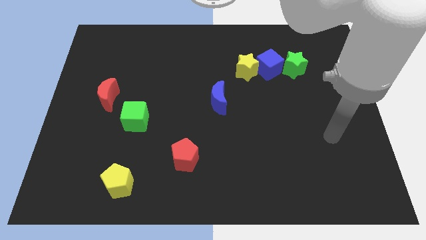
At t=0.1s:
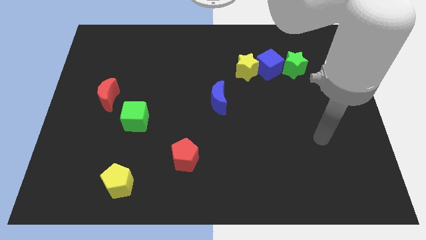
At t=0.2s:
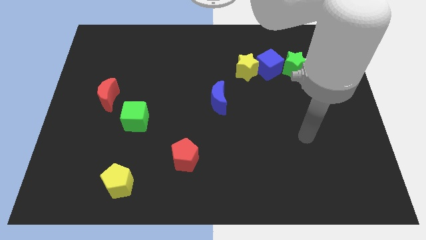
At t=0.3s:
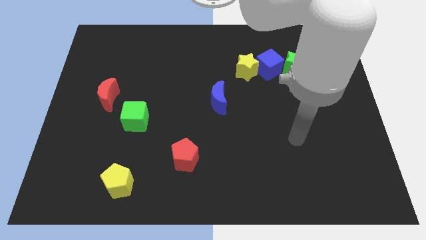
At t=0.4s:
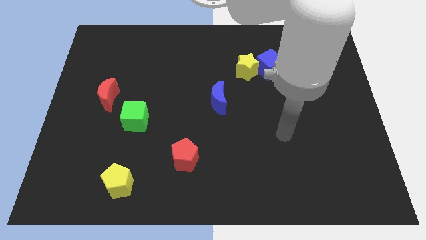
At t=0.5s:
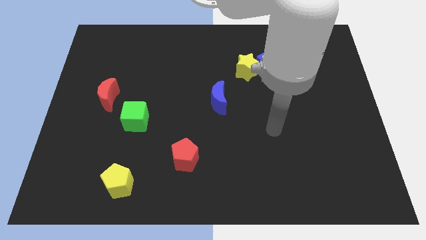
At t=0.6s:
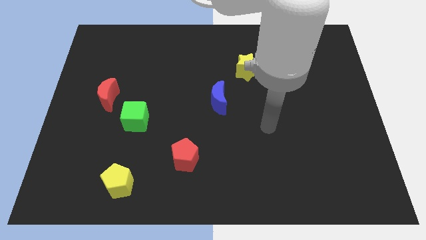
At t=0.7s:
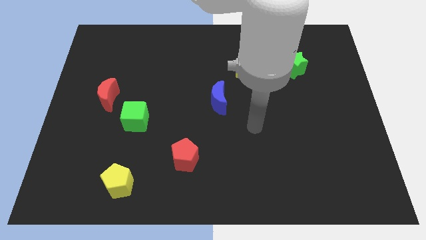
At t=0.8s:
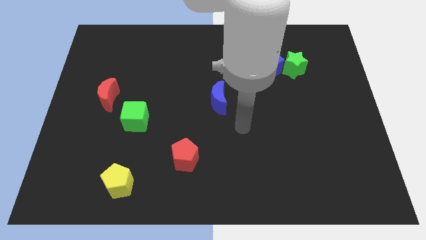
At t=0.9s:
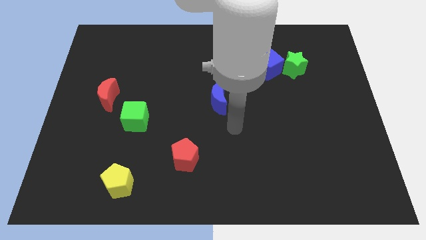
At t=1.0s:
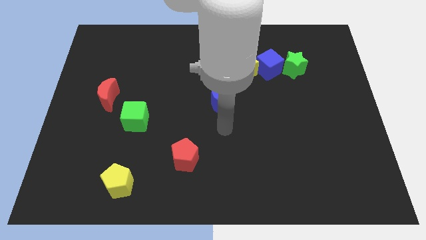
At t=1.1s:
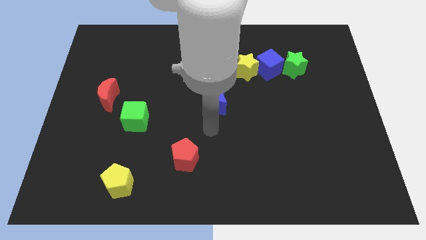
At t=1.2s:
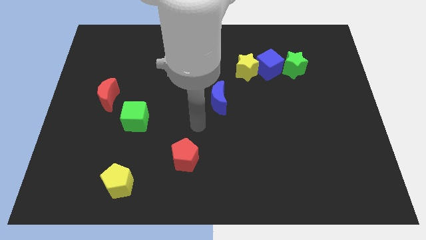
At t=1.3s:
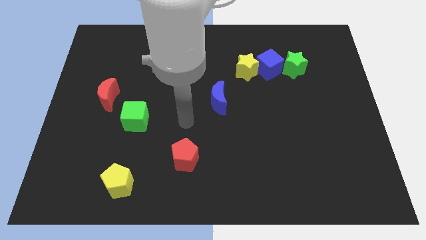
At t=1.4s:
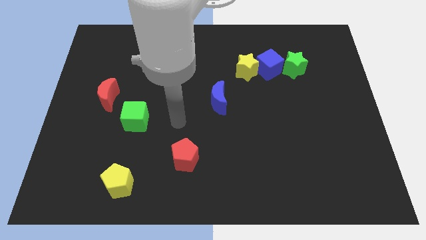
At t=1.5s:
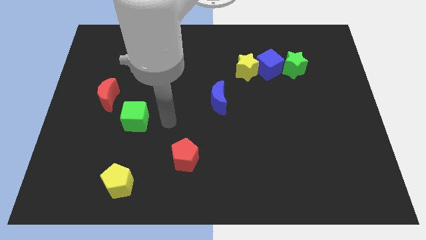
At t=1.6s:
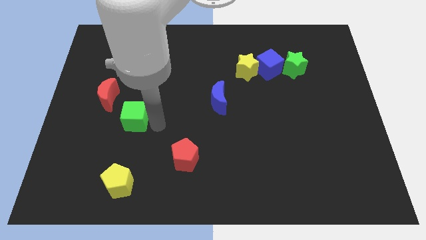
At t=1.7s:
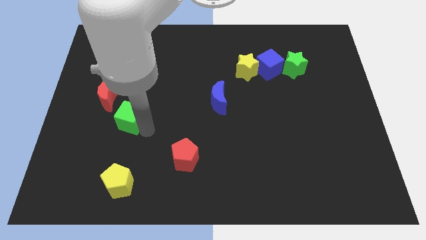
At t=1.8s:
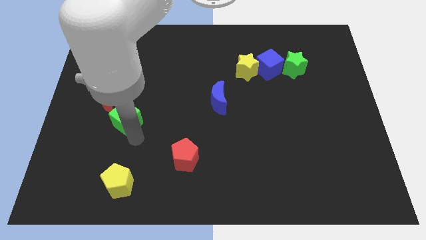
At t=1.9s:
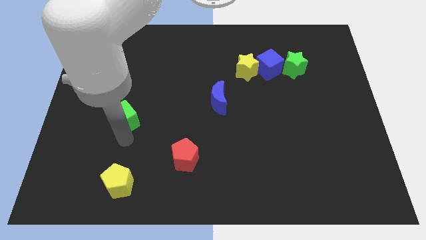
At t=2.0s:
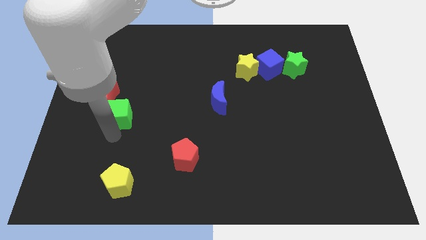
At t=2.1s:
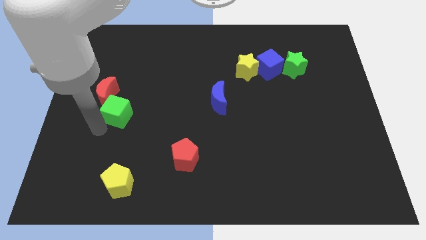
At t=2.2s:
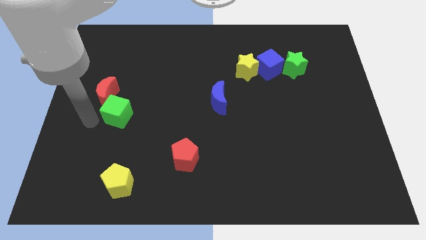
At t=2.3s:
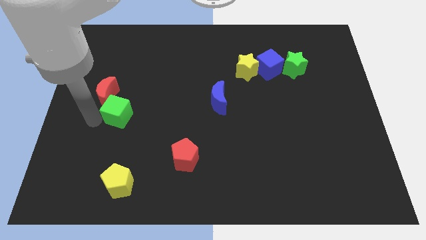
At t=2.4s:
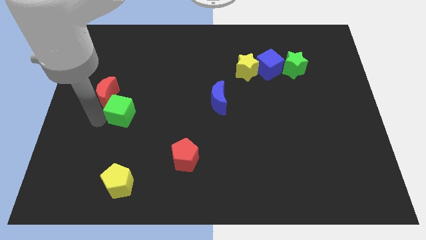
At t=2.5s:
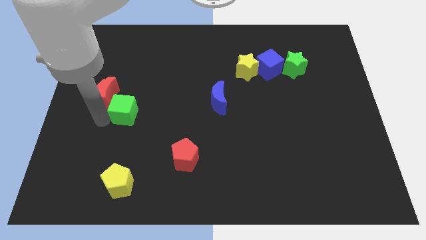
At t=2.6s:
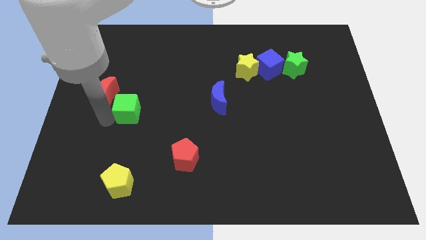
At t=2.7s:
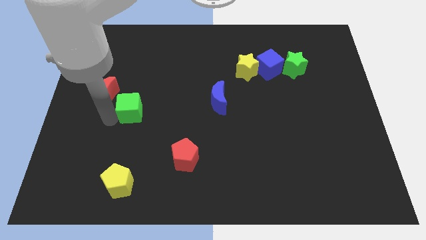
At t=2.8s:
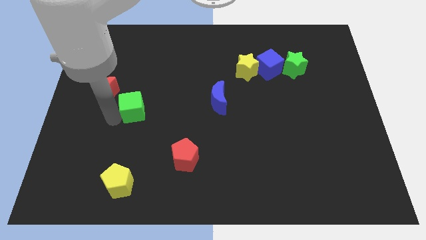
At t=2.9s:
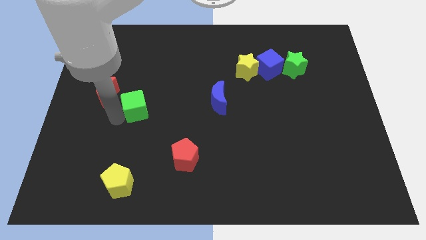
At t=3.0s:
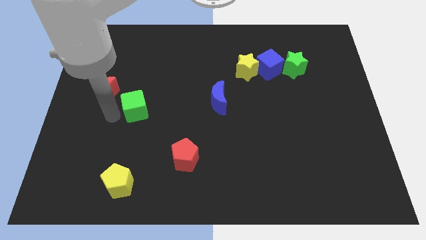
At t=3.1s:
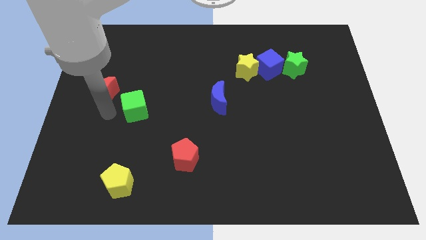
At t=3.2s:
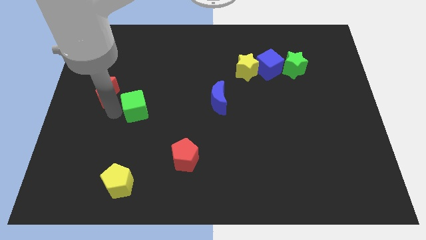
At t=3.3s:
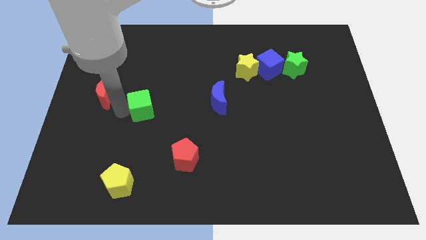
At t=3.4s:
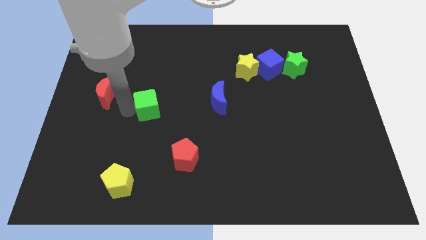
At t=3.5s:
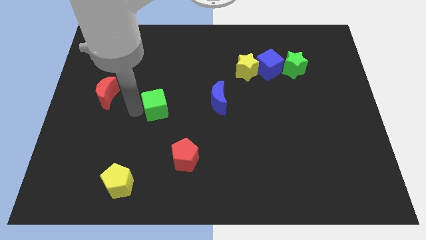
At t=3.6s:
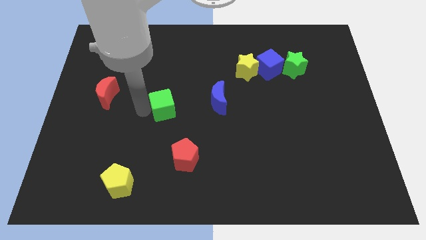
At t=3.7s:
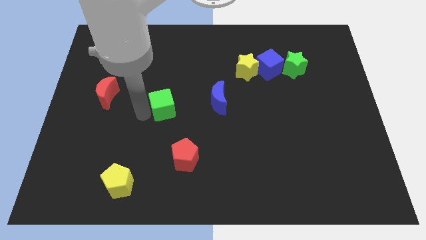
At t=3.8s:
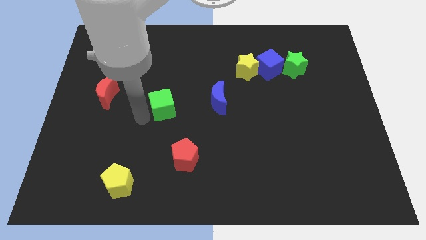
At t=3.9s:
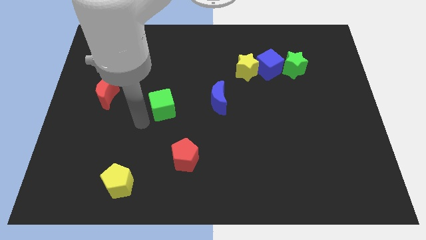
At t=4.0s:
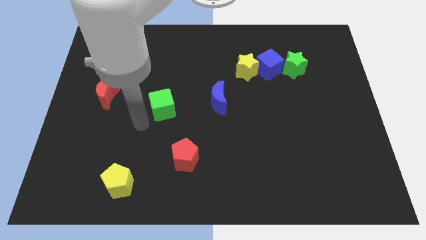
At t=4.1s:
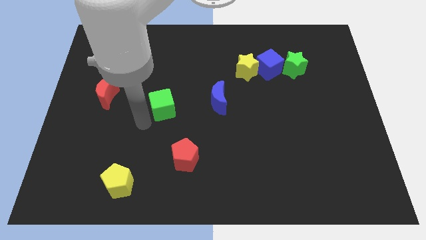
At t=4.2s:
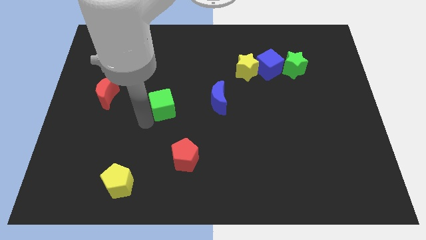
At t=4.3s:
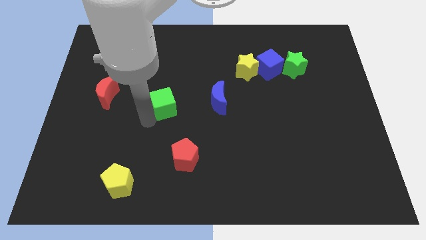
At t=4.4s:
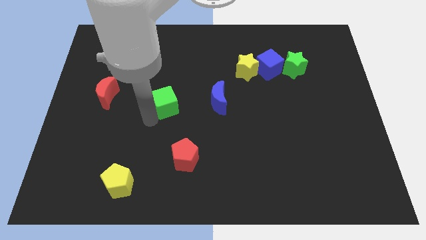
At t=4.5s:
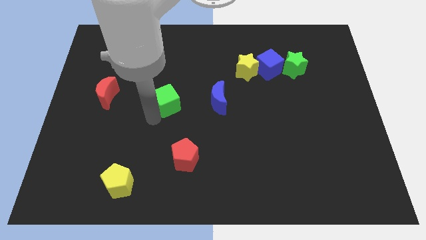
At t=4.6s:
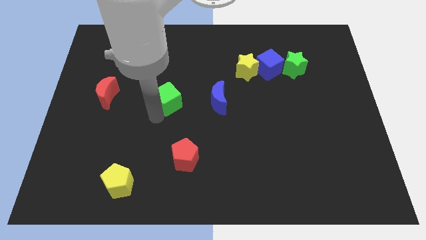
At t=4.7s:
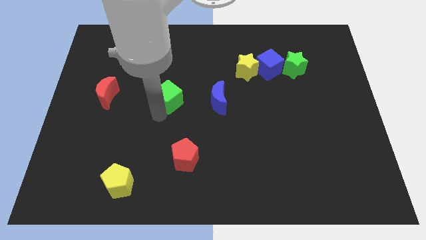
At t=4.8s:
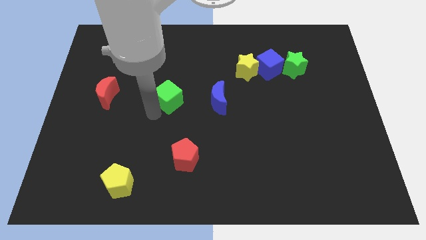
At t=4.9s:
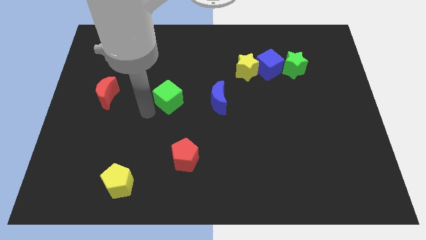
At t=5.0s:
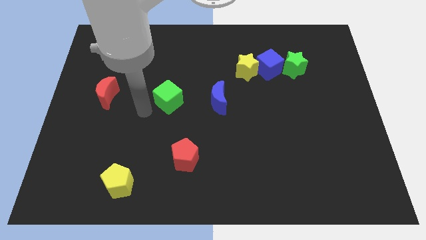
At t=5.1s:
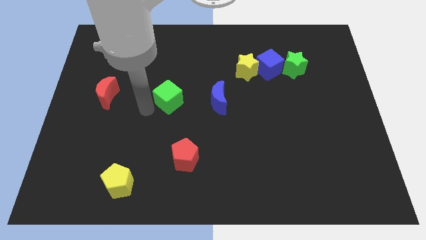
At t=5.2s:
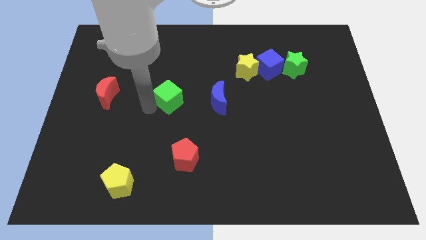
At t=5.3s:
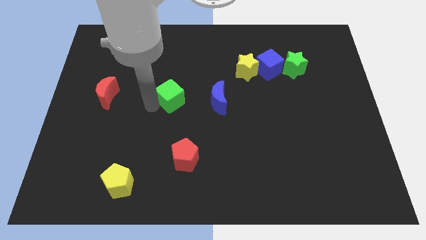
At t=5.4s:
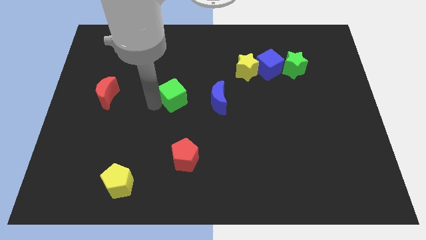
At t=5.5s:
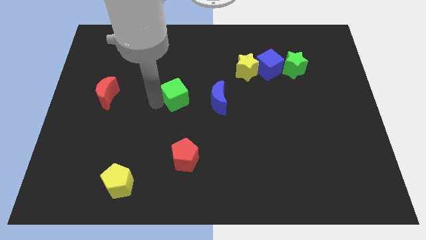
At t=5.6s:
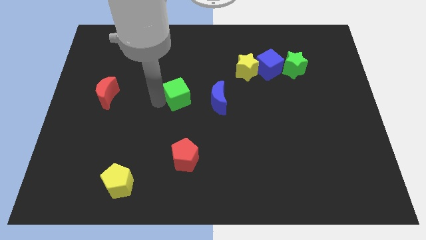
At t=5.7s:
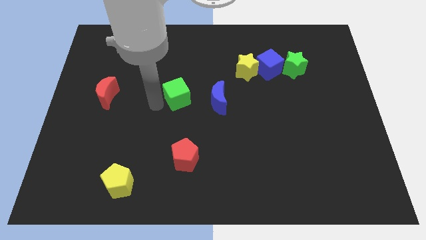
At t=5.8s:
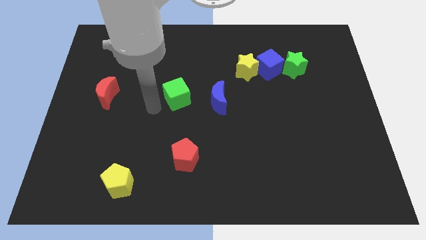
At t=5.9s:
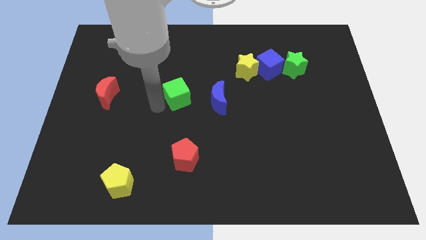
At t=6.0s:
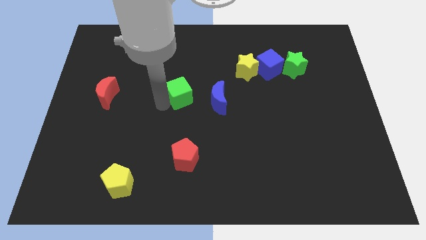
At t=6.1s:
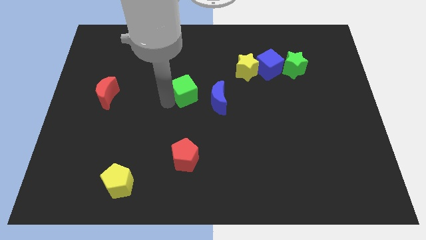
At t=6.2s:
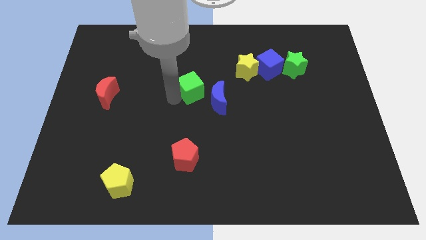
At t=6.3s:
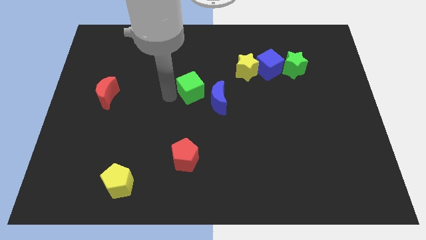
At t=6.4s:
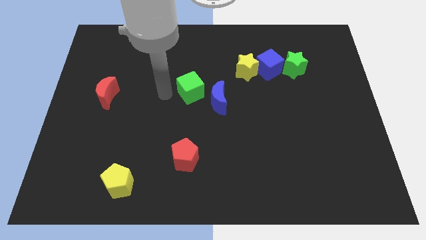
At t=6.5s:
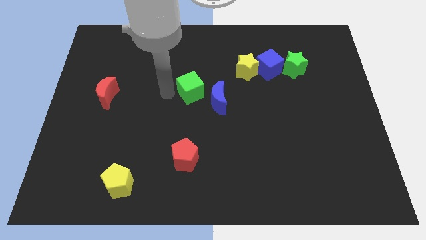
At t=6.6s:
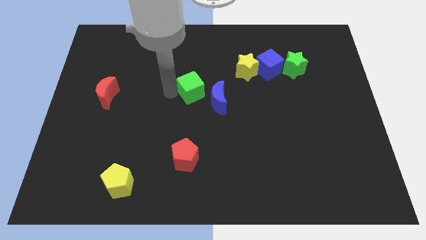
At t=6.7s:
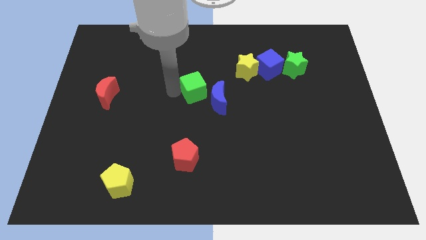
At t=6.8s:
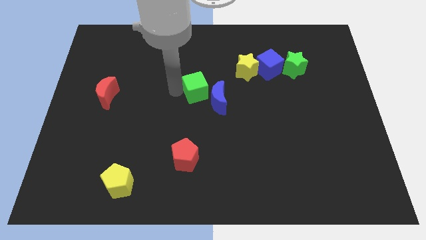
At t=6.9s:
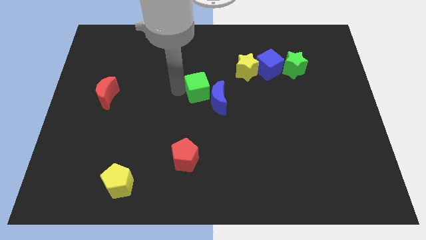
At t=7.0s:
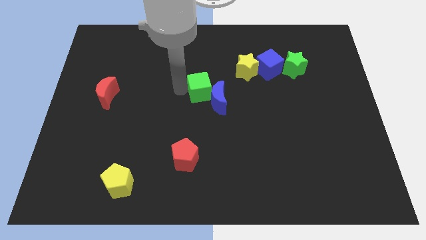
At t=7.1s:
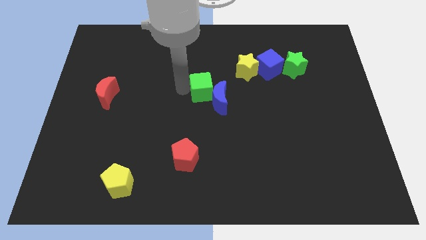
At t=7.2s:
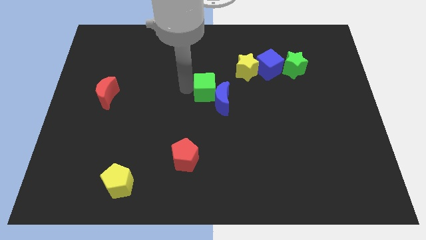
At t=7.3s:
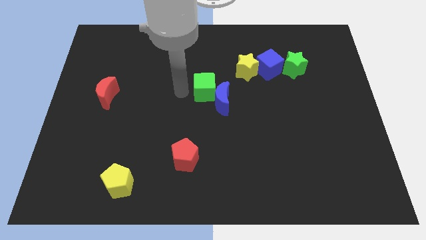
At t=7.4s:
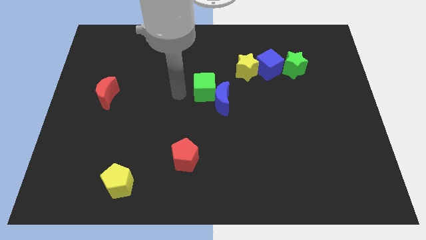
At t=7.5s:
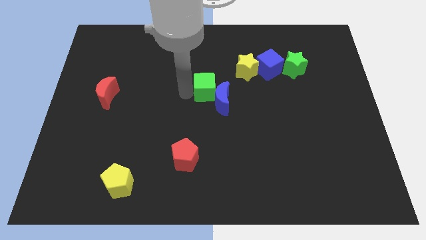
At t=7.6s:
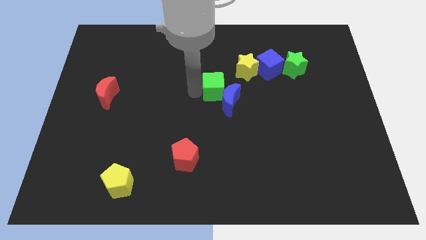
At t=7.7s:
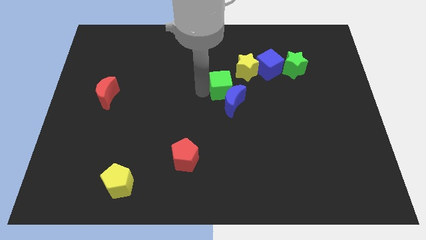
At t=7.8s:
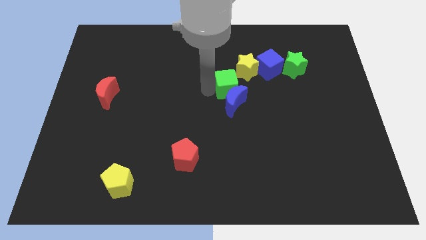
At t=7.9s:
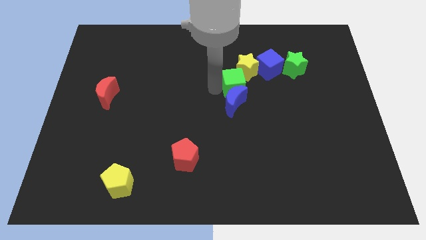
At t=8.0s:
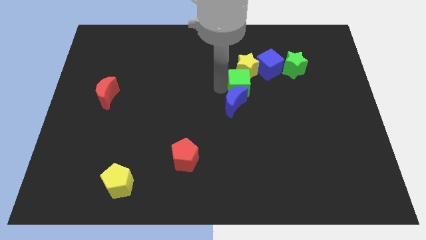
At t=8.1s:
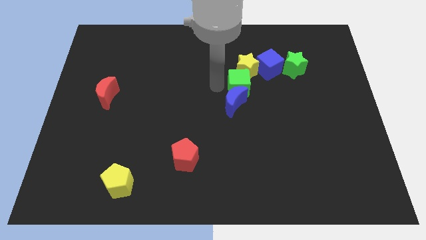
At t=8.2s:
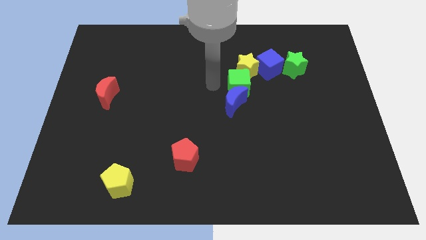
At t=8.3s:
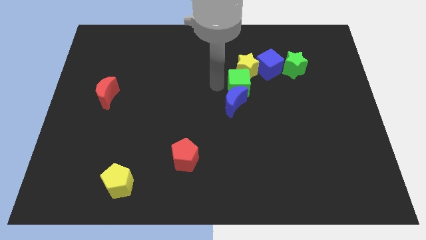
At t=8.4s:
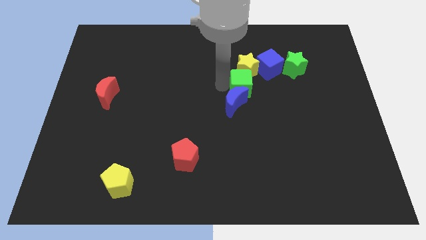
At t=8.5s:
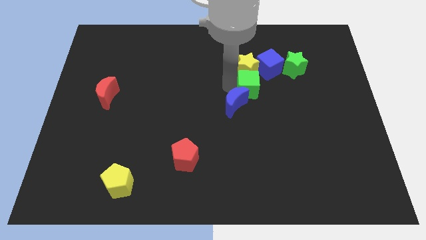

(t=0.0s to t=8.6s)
push the green cube diagonally down and to the right of the yellow star
